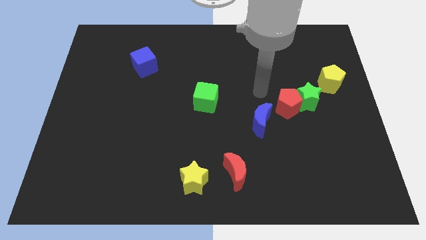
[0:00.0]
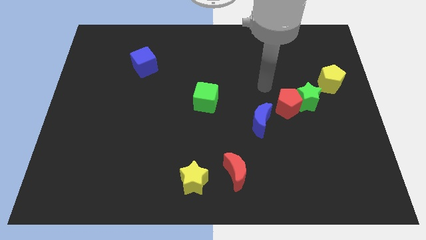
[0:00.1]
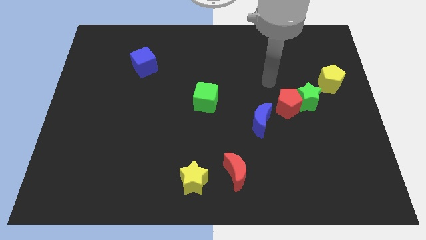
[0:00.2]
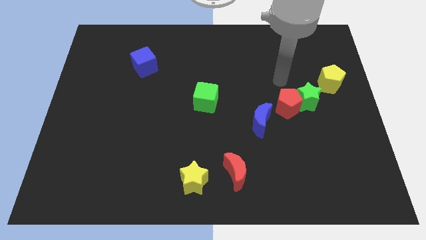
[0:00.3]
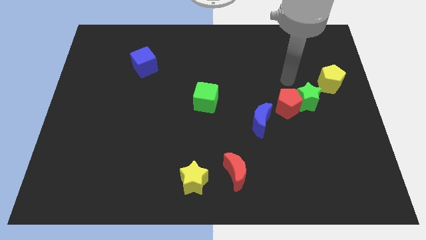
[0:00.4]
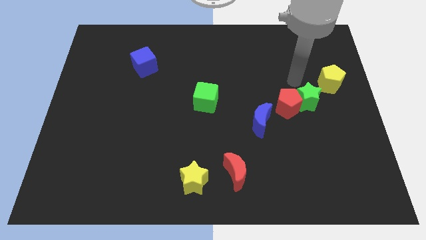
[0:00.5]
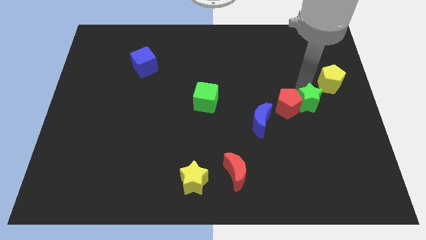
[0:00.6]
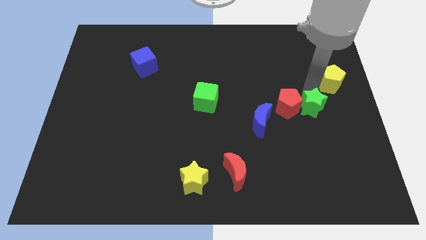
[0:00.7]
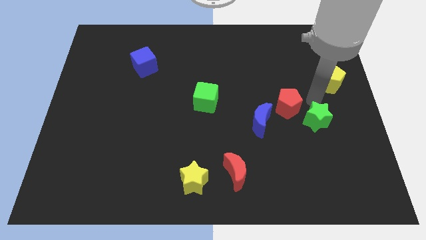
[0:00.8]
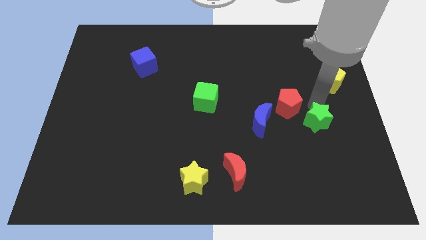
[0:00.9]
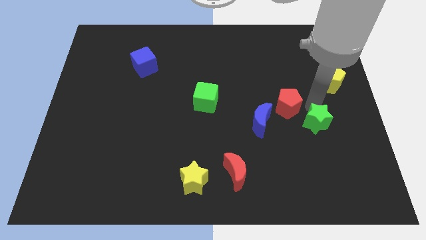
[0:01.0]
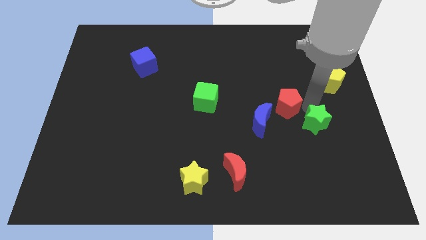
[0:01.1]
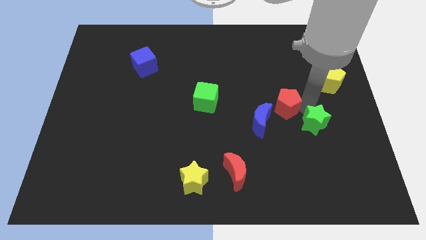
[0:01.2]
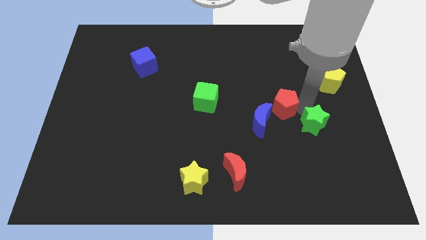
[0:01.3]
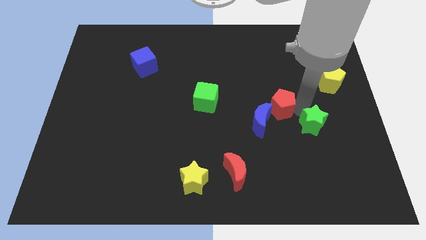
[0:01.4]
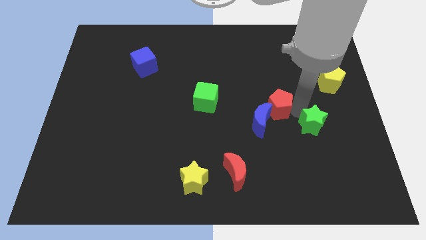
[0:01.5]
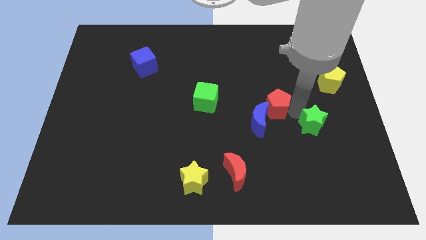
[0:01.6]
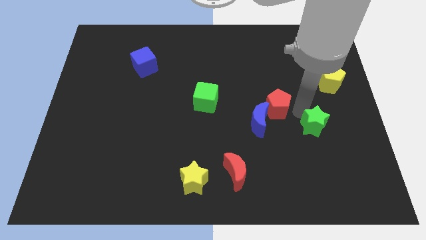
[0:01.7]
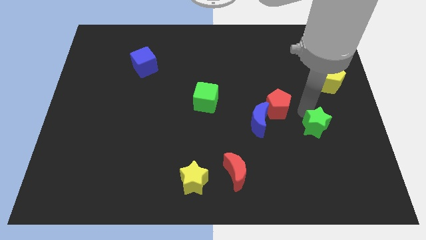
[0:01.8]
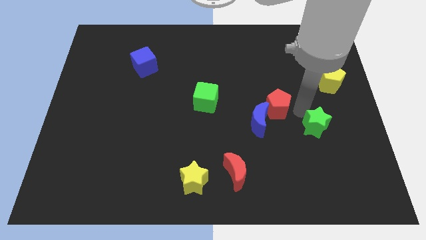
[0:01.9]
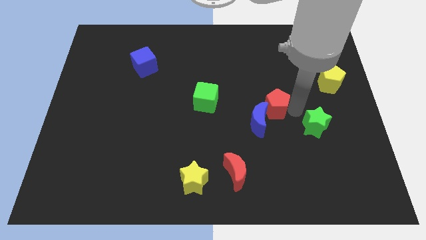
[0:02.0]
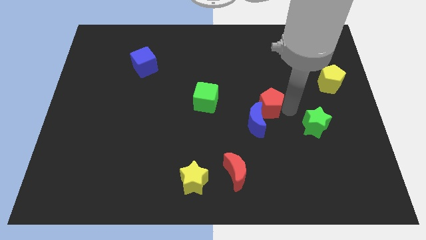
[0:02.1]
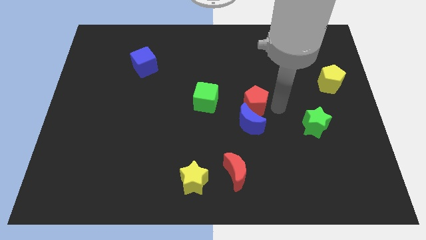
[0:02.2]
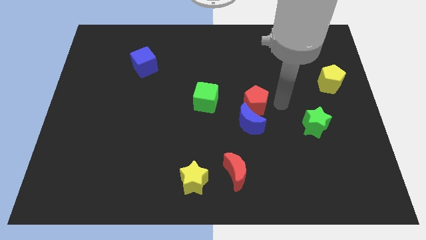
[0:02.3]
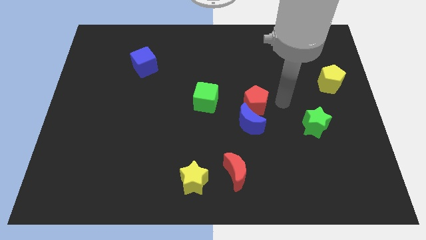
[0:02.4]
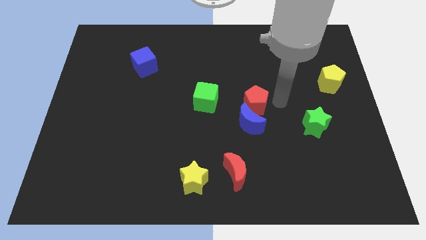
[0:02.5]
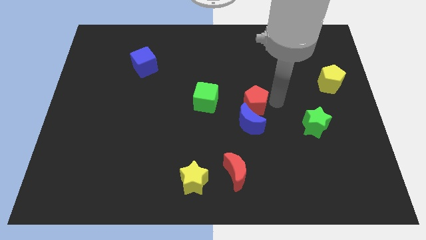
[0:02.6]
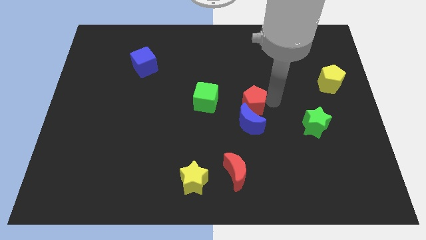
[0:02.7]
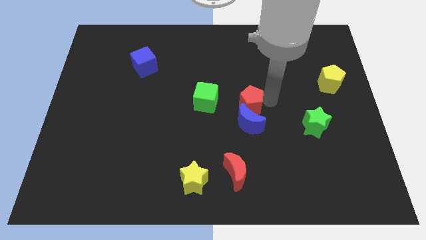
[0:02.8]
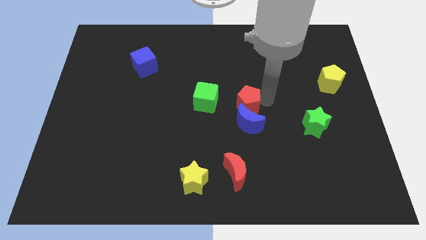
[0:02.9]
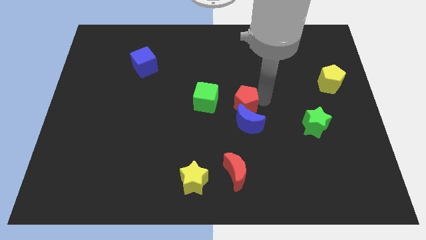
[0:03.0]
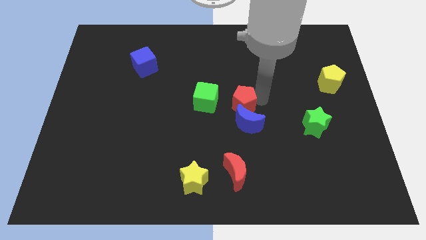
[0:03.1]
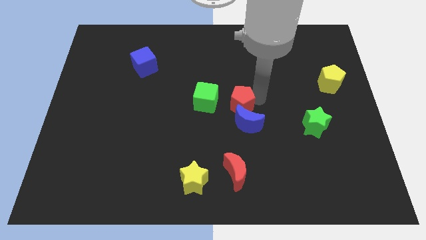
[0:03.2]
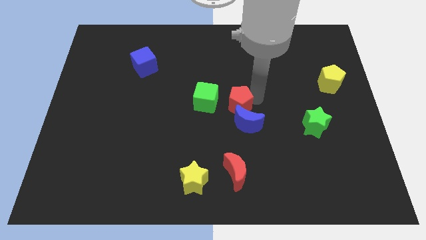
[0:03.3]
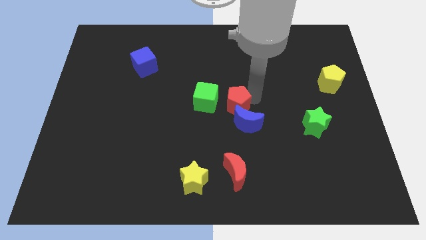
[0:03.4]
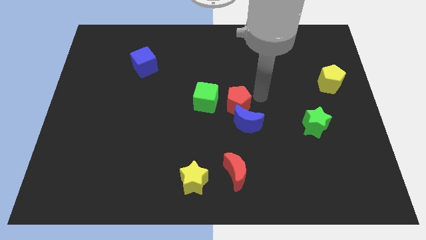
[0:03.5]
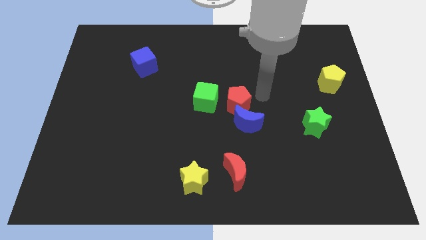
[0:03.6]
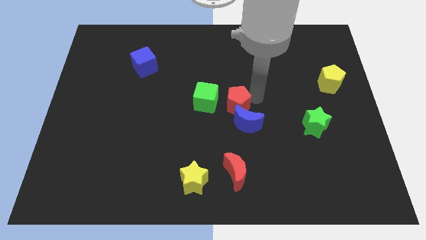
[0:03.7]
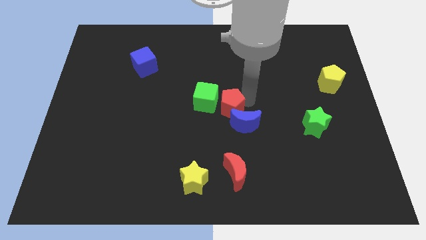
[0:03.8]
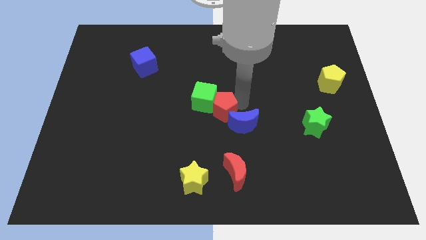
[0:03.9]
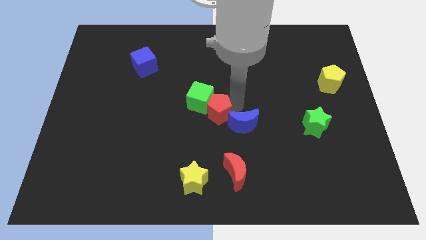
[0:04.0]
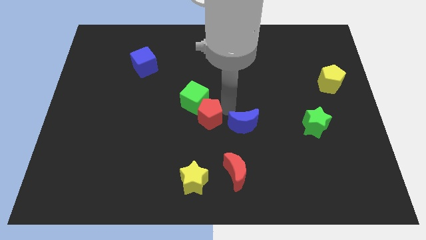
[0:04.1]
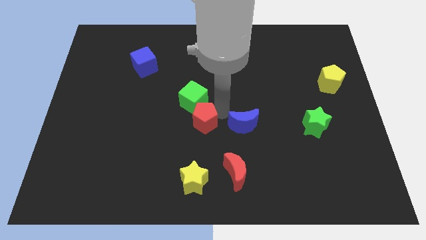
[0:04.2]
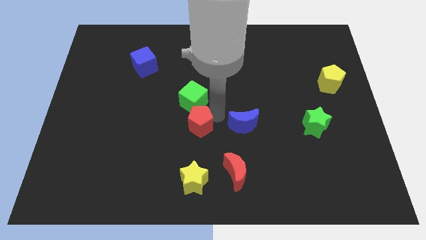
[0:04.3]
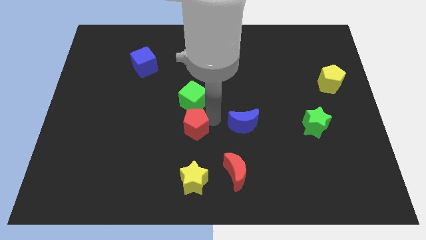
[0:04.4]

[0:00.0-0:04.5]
slide the red pentagon left

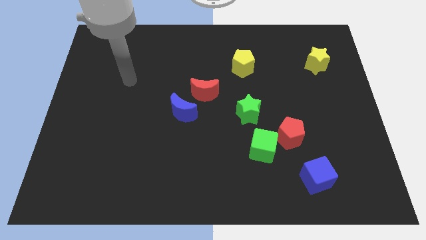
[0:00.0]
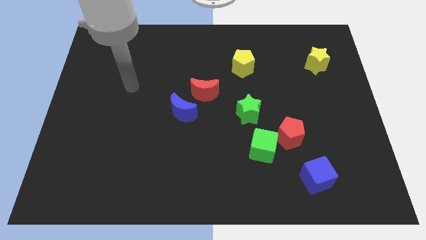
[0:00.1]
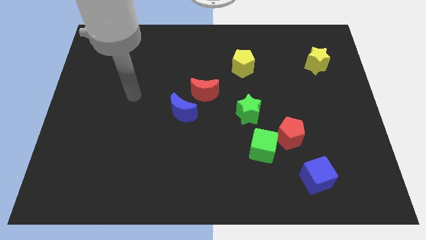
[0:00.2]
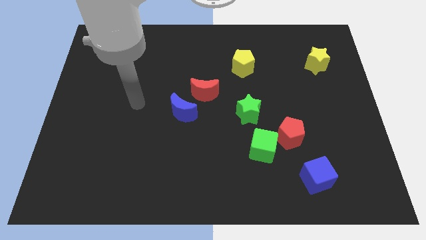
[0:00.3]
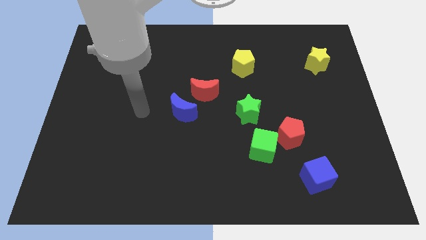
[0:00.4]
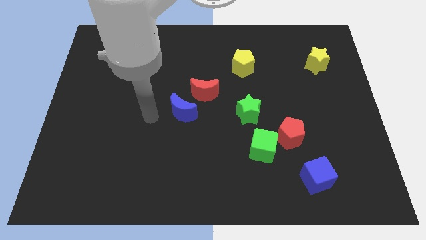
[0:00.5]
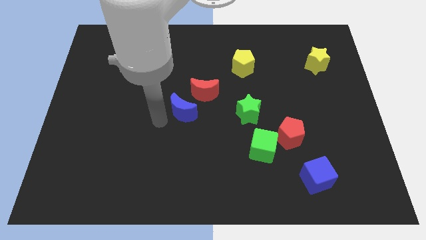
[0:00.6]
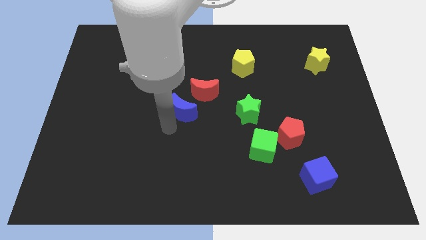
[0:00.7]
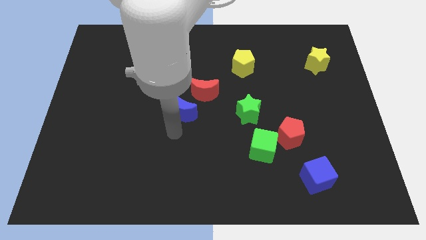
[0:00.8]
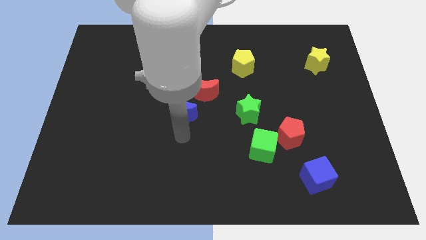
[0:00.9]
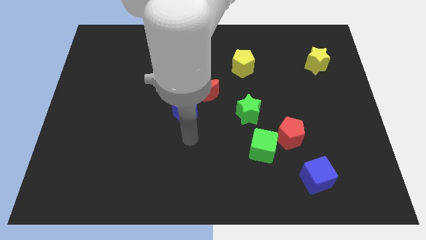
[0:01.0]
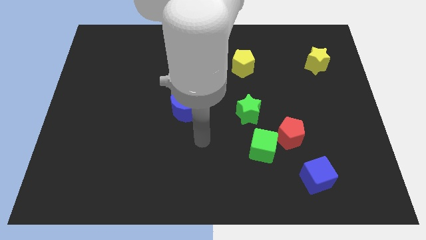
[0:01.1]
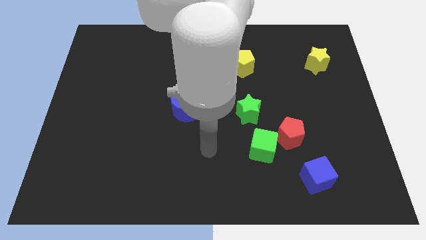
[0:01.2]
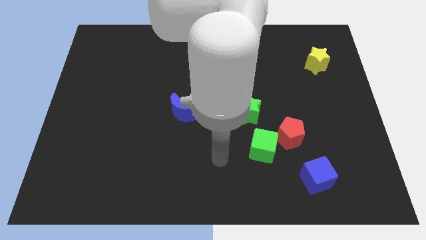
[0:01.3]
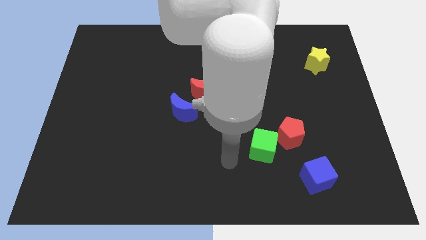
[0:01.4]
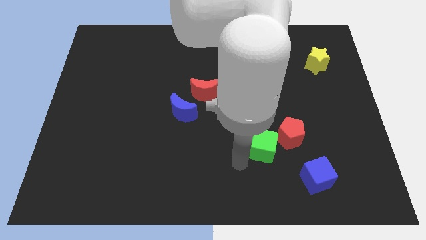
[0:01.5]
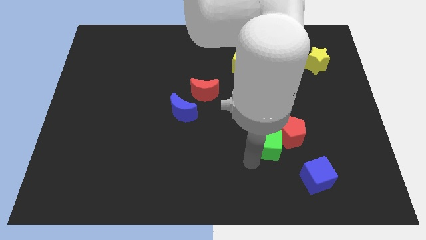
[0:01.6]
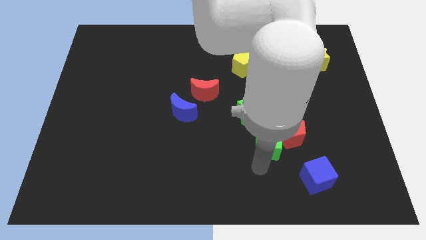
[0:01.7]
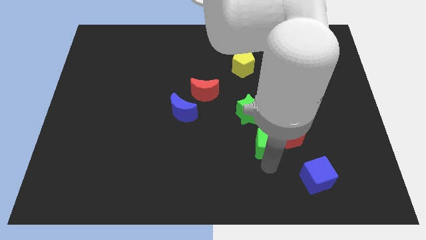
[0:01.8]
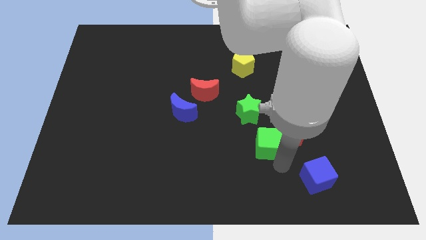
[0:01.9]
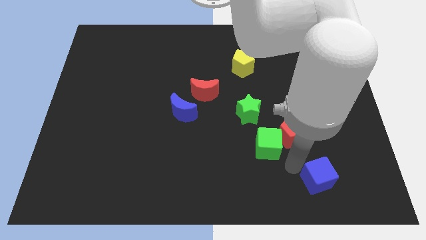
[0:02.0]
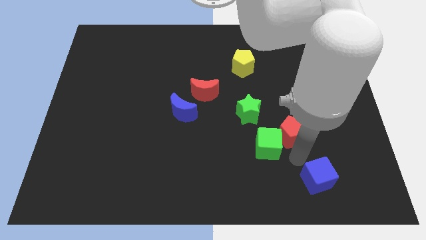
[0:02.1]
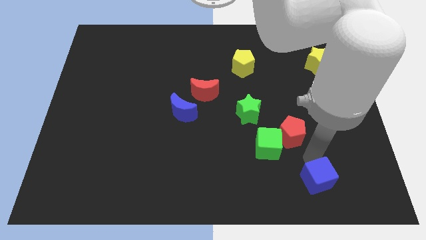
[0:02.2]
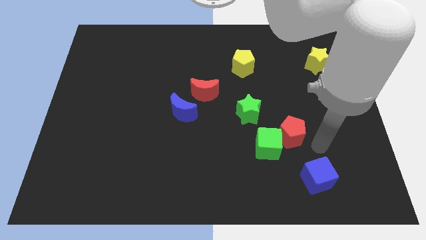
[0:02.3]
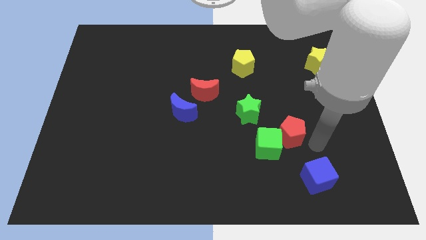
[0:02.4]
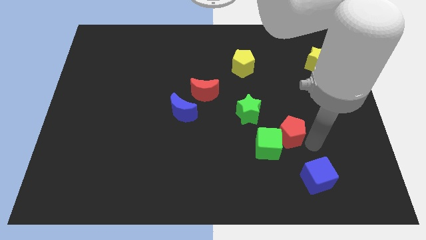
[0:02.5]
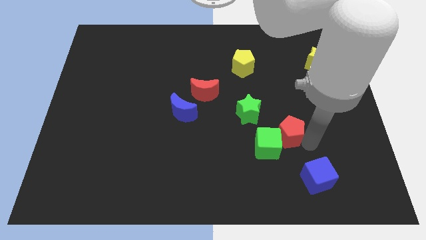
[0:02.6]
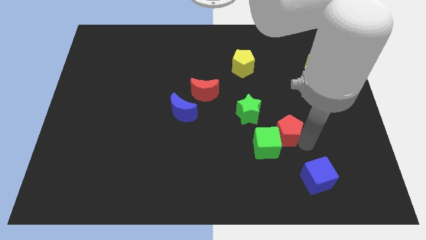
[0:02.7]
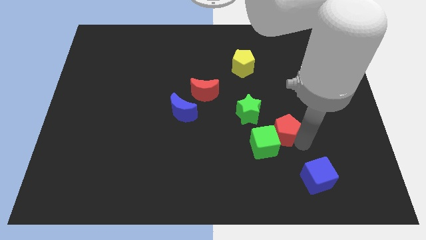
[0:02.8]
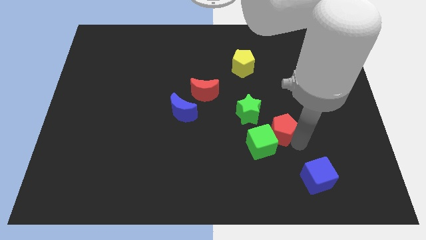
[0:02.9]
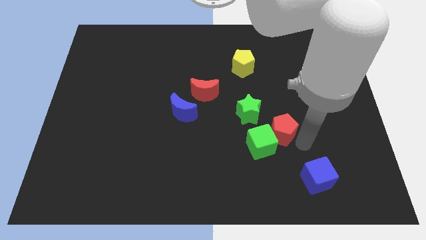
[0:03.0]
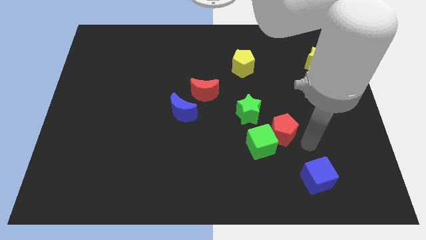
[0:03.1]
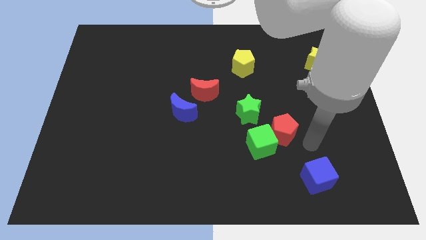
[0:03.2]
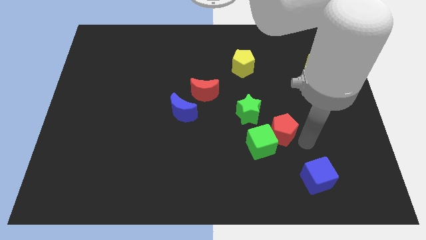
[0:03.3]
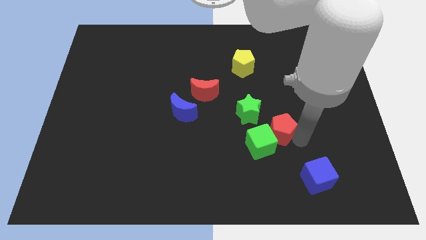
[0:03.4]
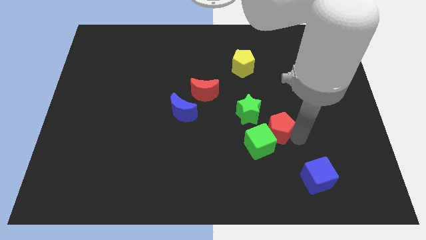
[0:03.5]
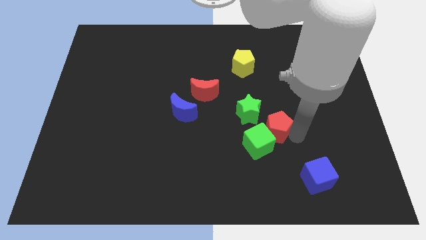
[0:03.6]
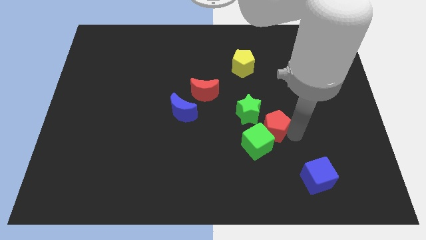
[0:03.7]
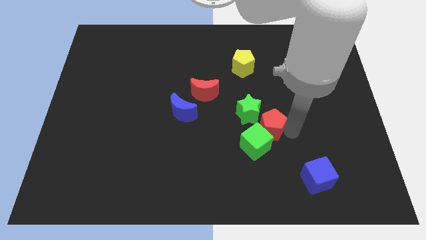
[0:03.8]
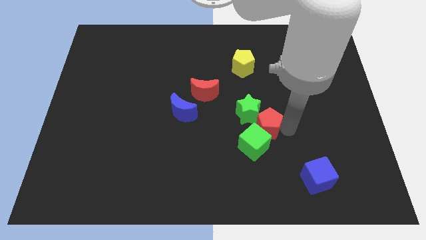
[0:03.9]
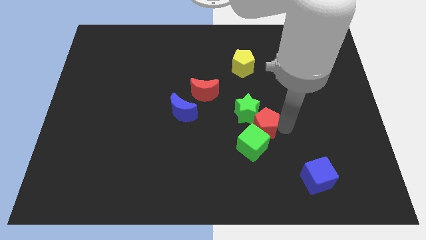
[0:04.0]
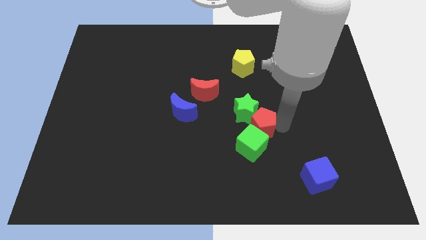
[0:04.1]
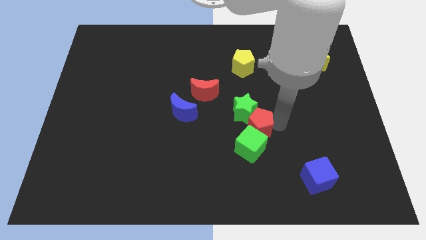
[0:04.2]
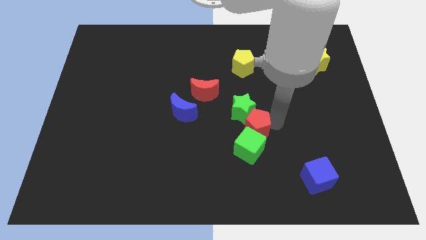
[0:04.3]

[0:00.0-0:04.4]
slide the red pentagon to the left slightly
